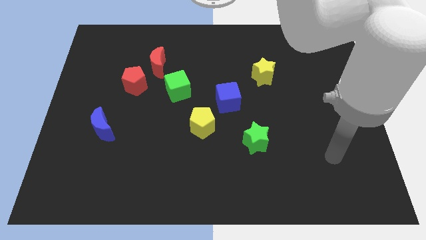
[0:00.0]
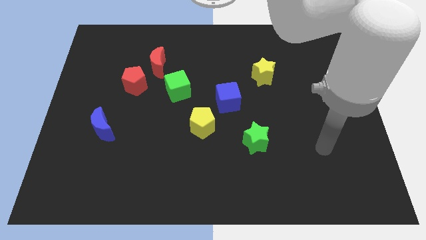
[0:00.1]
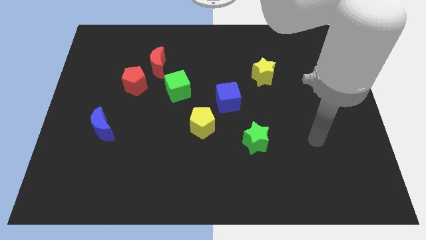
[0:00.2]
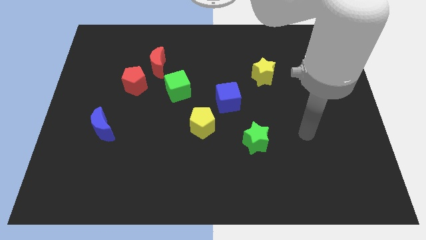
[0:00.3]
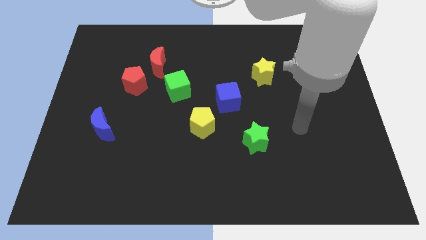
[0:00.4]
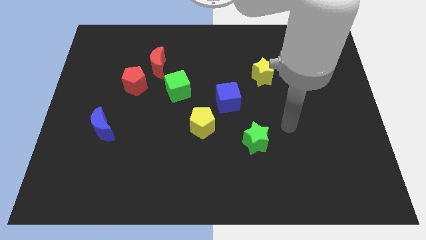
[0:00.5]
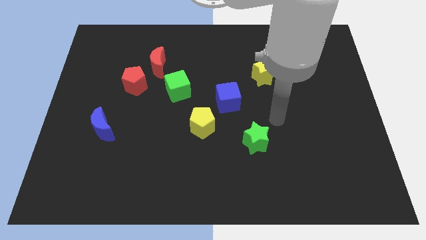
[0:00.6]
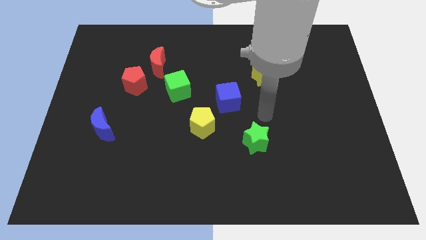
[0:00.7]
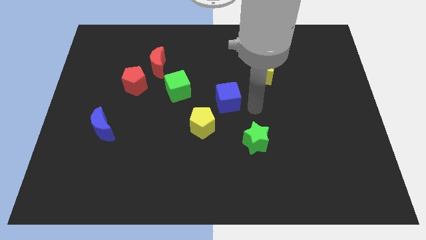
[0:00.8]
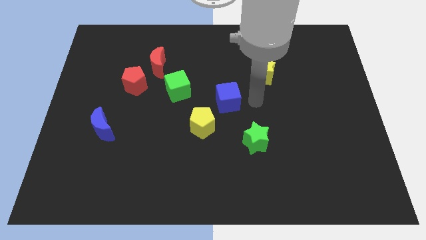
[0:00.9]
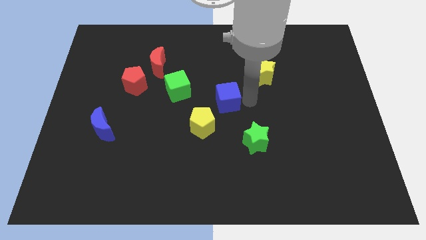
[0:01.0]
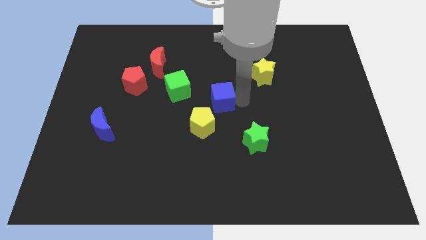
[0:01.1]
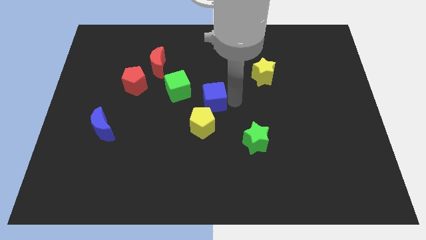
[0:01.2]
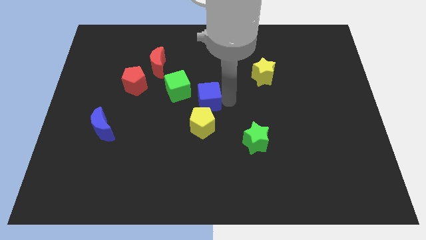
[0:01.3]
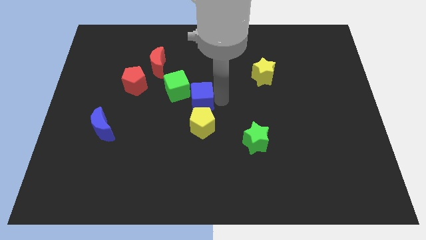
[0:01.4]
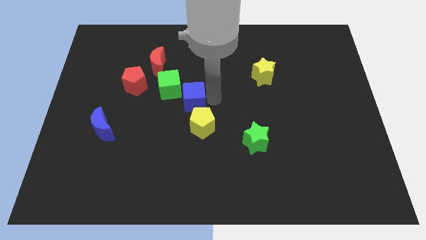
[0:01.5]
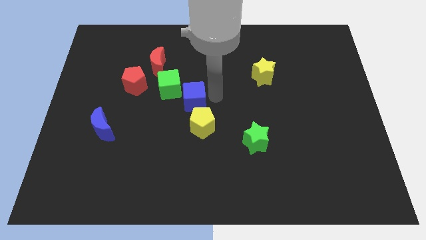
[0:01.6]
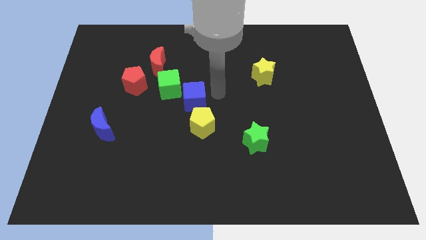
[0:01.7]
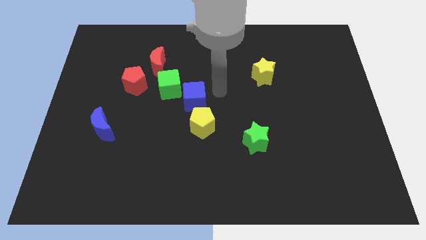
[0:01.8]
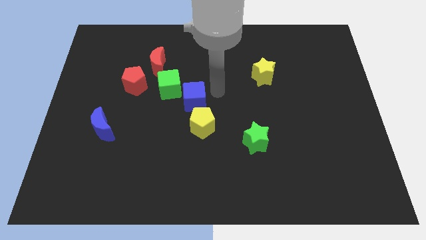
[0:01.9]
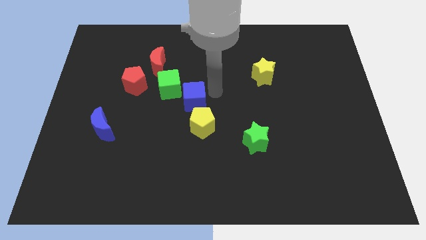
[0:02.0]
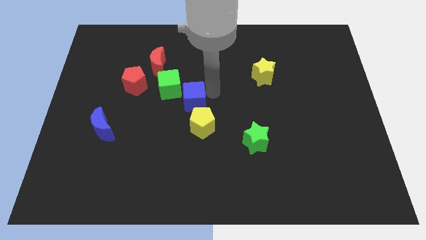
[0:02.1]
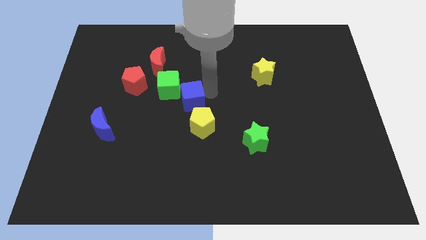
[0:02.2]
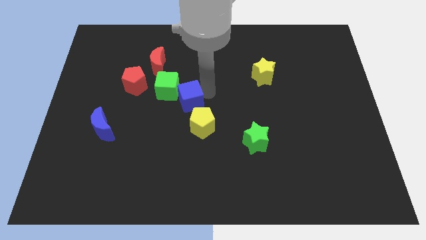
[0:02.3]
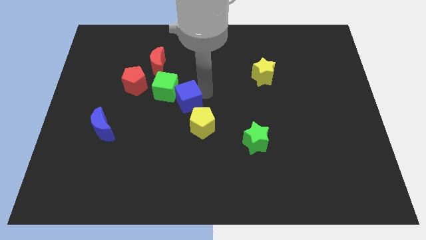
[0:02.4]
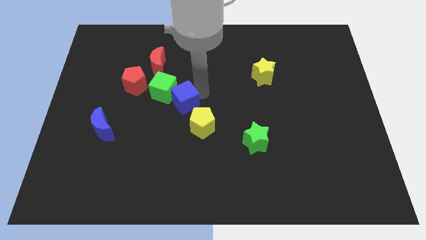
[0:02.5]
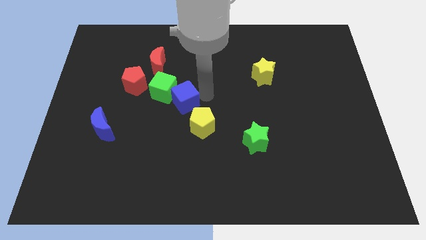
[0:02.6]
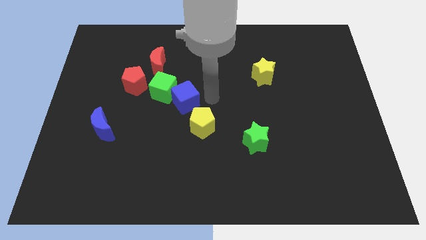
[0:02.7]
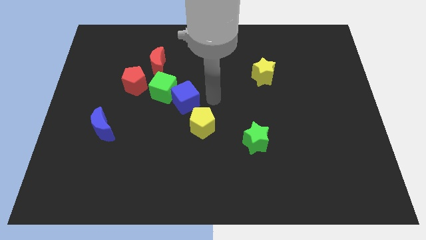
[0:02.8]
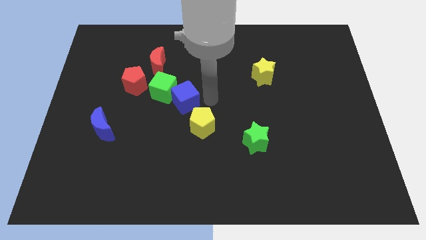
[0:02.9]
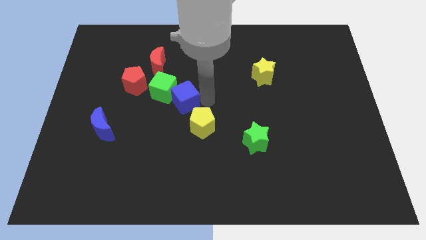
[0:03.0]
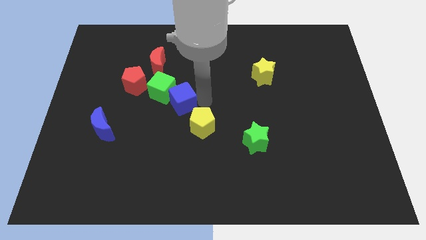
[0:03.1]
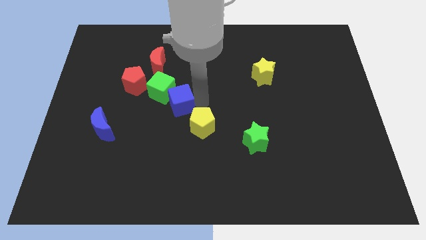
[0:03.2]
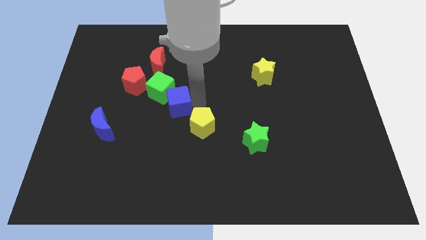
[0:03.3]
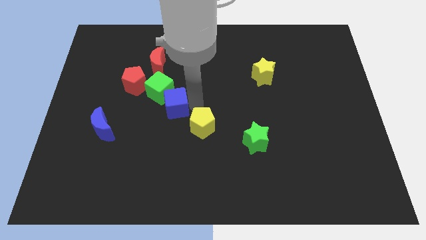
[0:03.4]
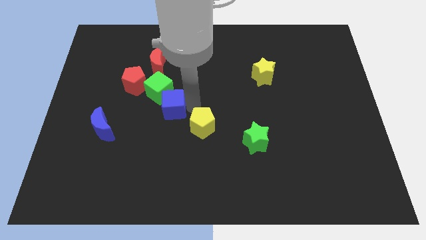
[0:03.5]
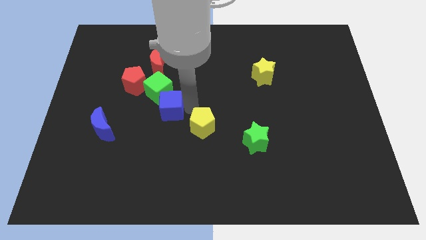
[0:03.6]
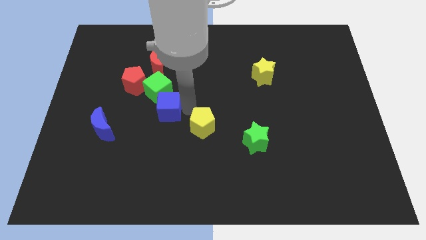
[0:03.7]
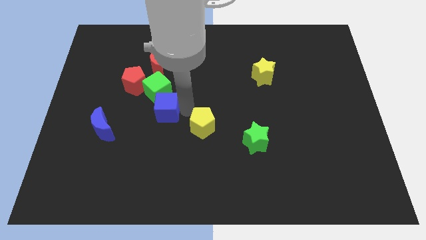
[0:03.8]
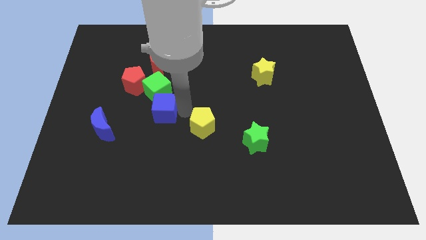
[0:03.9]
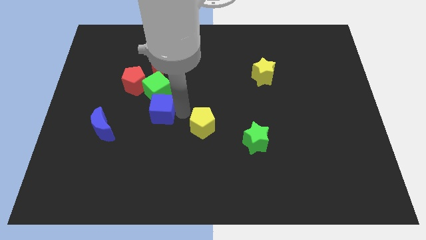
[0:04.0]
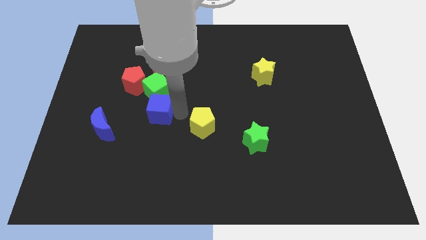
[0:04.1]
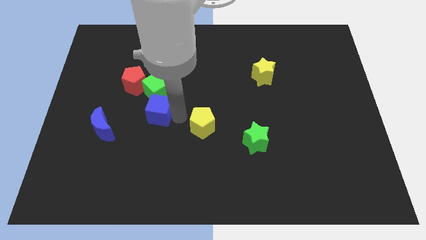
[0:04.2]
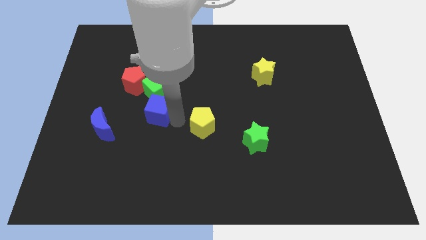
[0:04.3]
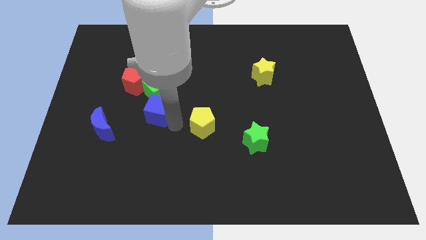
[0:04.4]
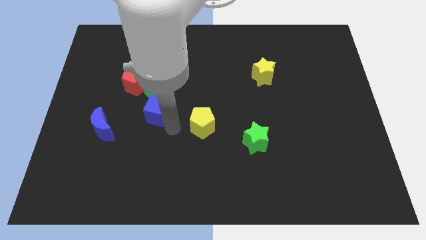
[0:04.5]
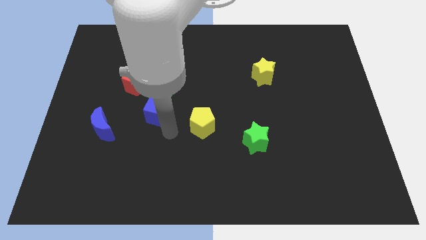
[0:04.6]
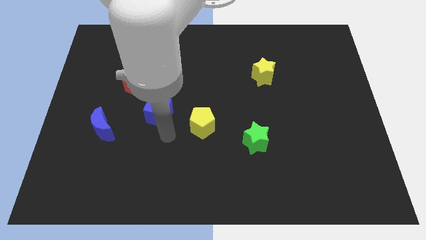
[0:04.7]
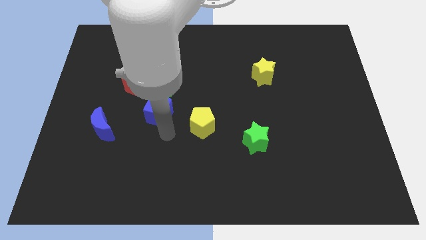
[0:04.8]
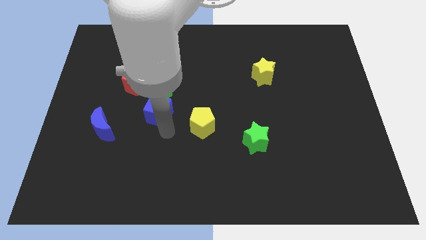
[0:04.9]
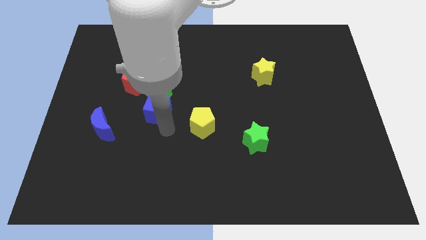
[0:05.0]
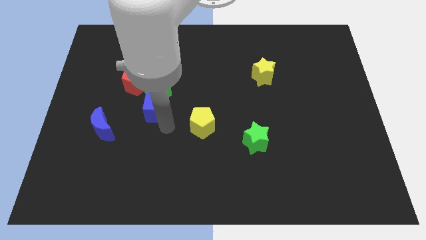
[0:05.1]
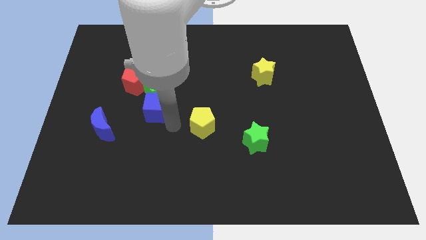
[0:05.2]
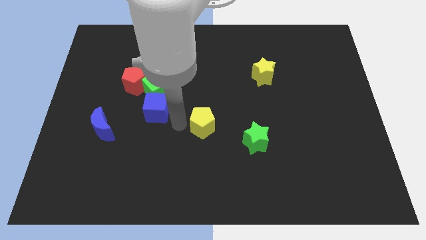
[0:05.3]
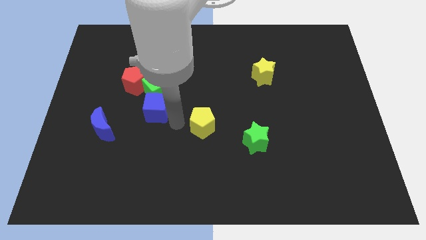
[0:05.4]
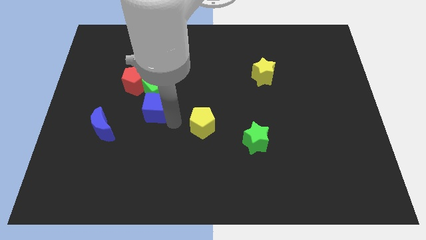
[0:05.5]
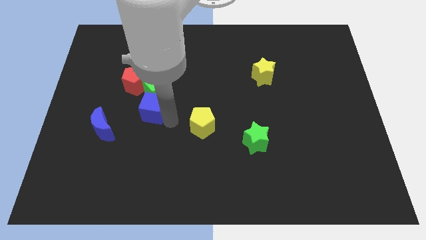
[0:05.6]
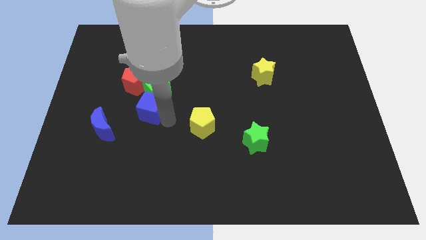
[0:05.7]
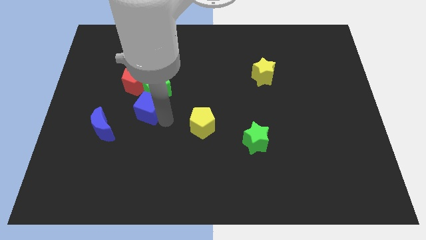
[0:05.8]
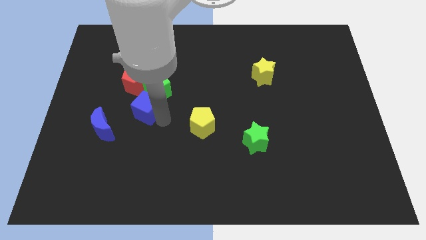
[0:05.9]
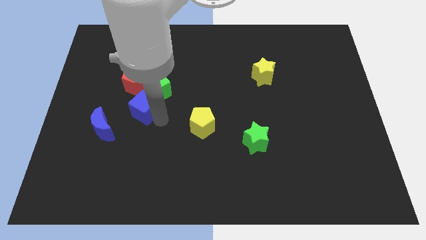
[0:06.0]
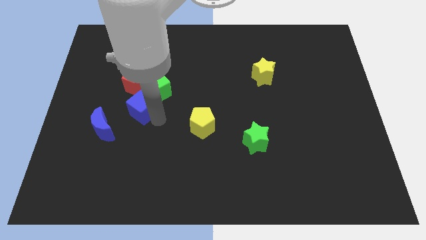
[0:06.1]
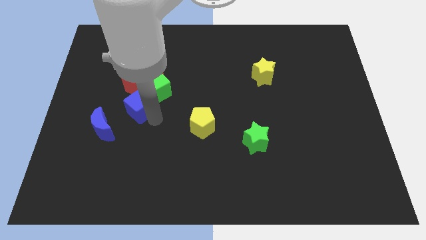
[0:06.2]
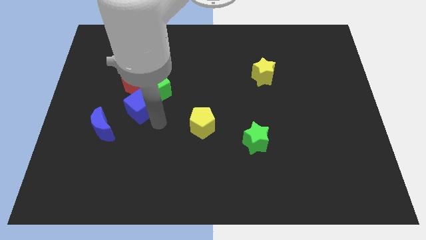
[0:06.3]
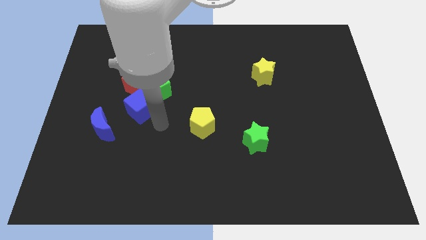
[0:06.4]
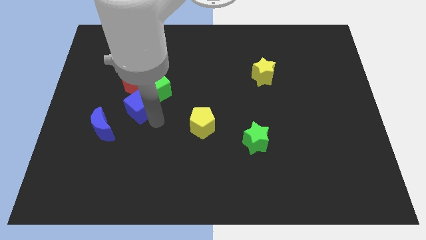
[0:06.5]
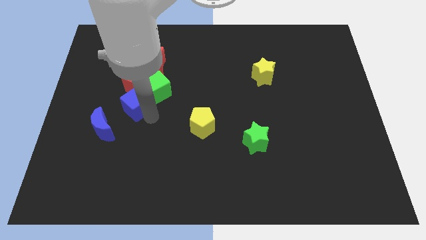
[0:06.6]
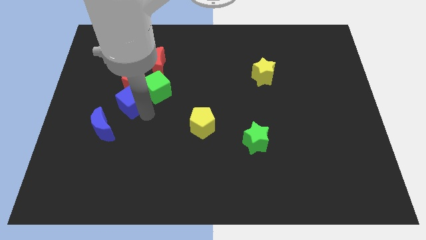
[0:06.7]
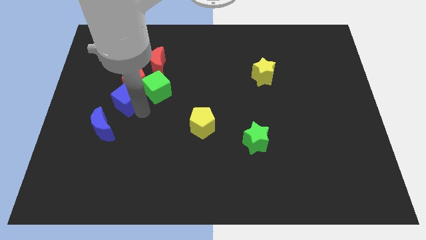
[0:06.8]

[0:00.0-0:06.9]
slide the blue cube above the blue moon

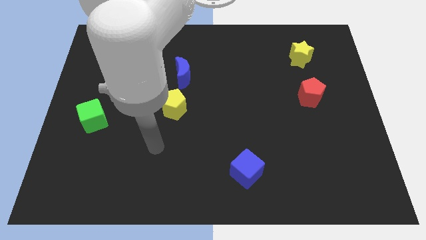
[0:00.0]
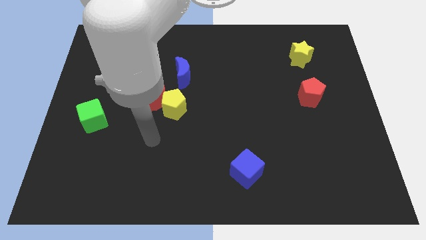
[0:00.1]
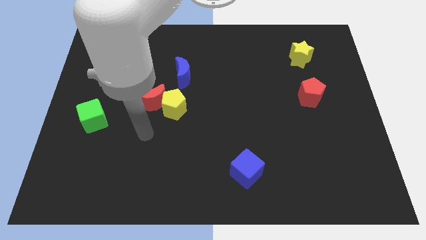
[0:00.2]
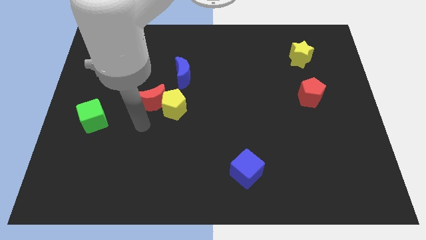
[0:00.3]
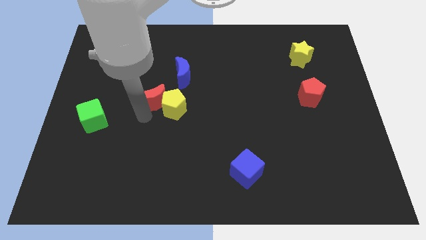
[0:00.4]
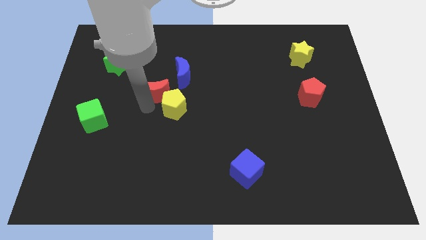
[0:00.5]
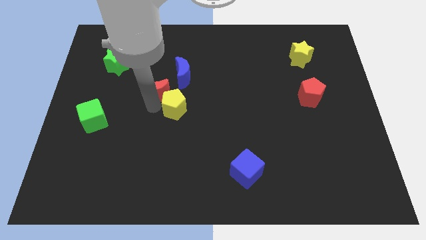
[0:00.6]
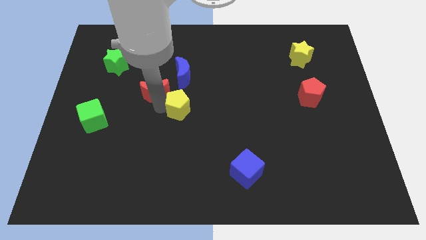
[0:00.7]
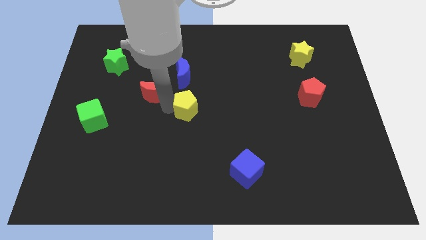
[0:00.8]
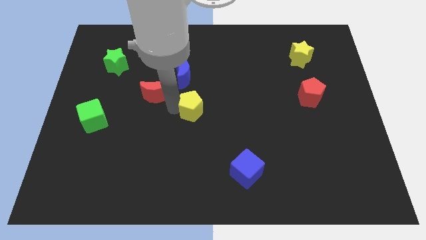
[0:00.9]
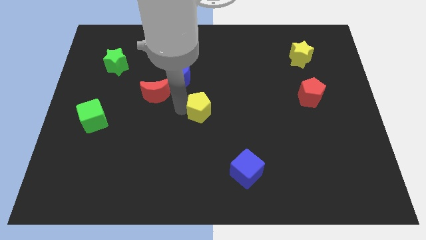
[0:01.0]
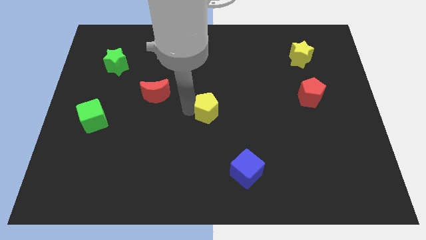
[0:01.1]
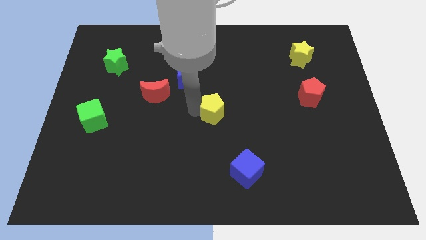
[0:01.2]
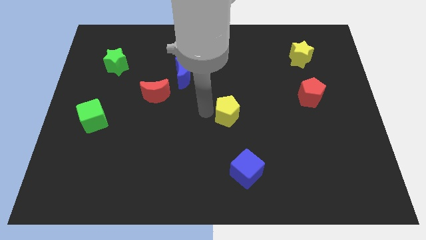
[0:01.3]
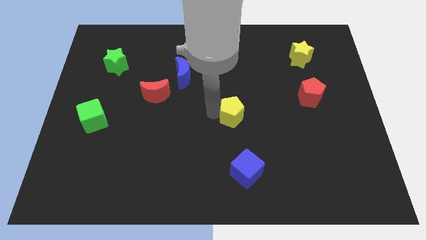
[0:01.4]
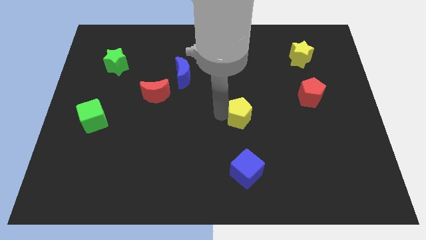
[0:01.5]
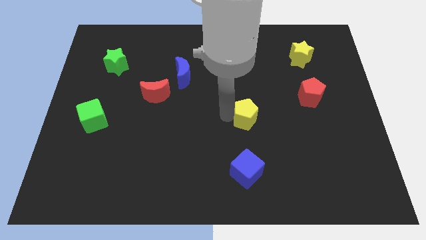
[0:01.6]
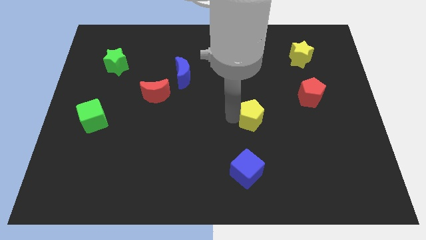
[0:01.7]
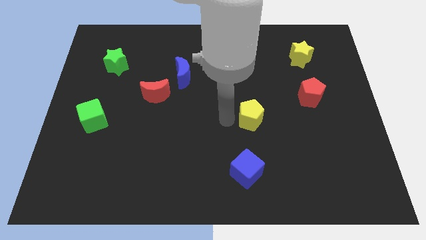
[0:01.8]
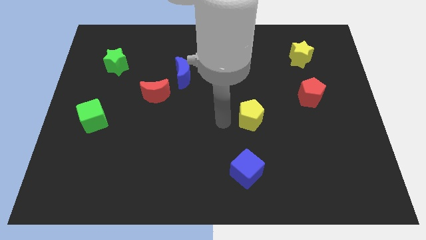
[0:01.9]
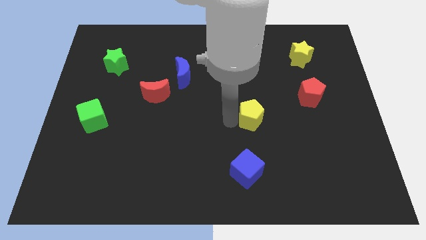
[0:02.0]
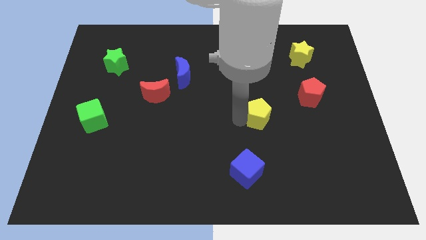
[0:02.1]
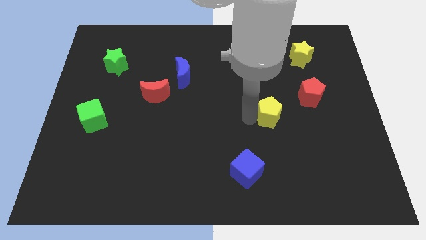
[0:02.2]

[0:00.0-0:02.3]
put the yellow pentagon to the bottom left of the red pentagon
